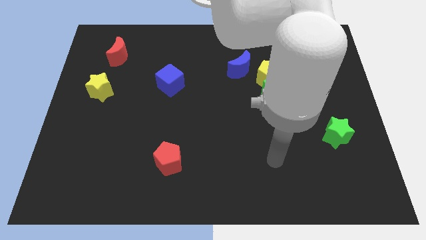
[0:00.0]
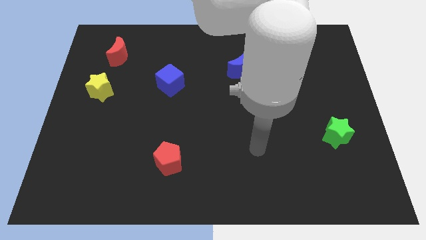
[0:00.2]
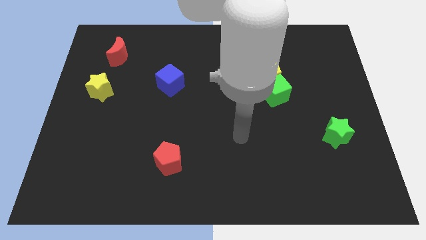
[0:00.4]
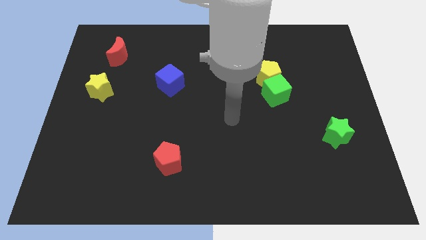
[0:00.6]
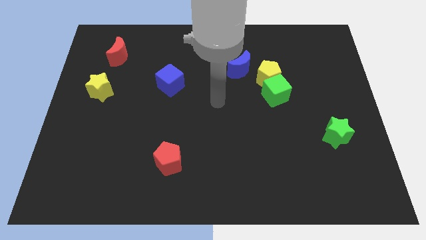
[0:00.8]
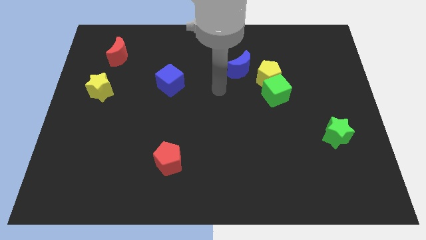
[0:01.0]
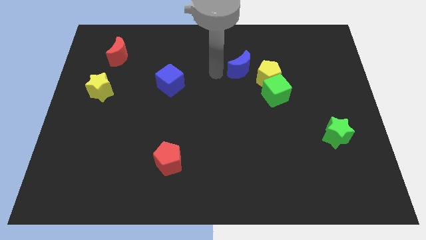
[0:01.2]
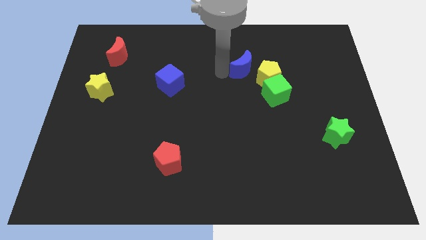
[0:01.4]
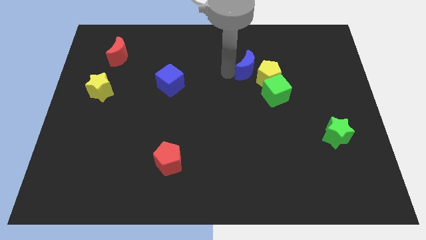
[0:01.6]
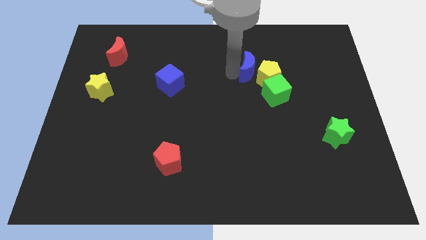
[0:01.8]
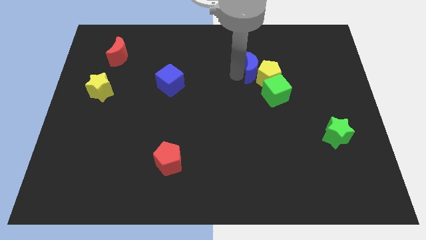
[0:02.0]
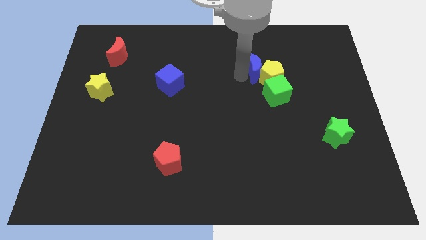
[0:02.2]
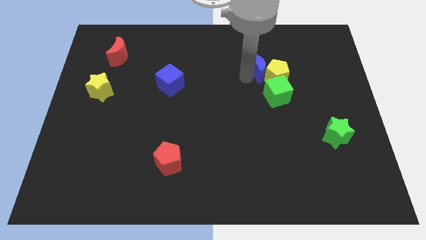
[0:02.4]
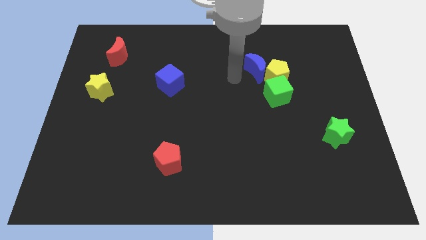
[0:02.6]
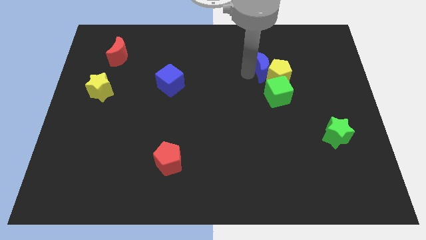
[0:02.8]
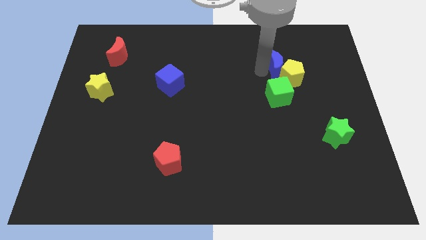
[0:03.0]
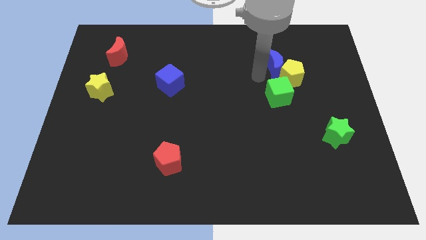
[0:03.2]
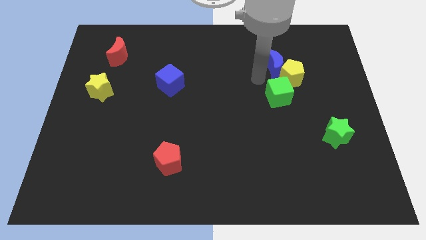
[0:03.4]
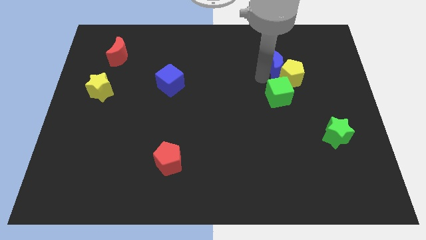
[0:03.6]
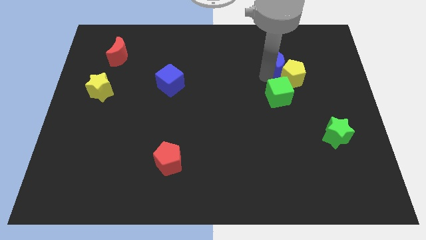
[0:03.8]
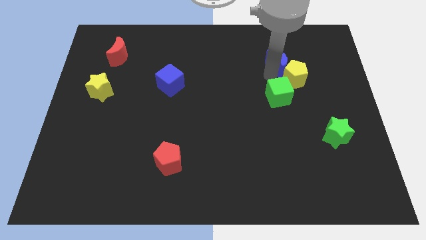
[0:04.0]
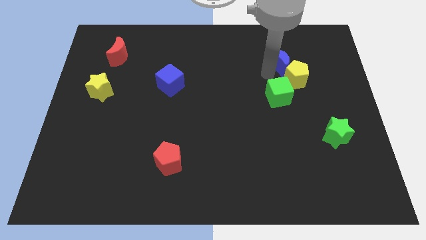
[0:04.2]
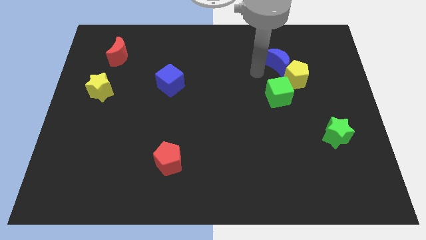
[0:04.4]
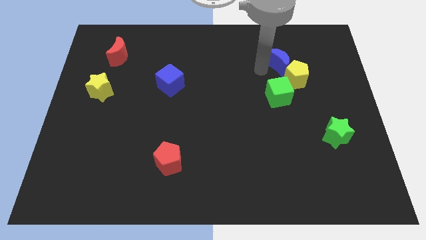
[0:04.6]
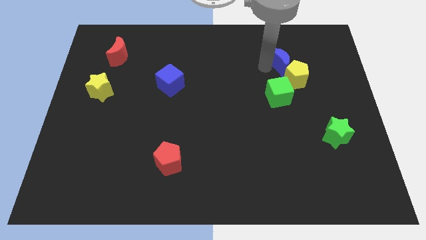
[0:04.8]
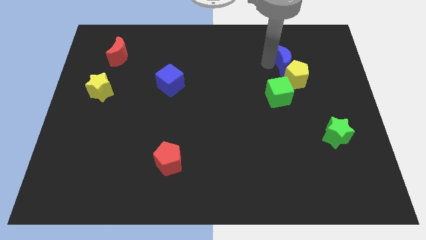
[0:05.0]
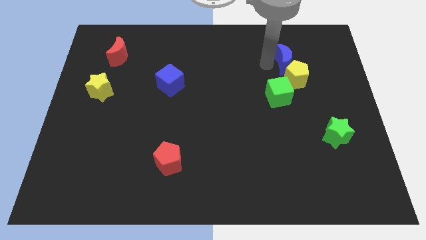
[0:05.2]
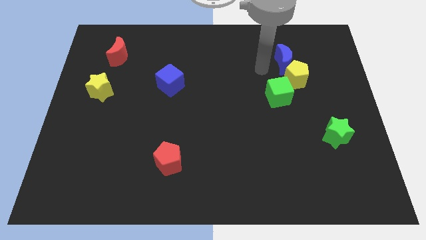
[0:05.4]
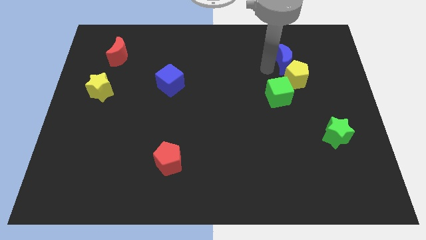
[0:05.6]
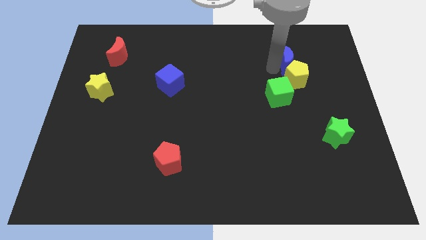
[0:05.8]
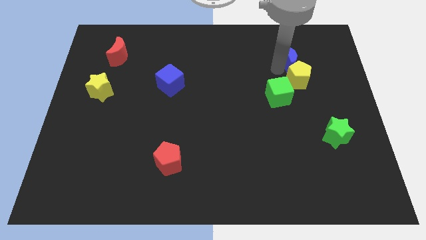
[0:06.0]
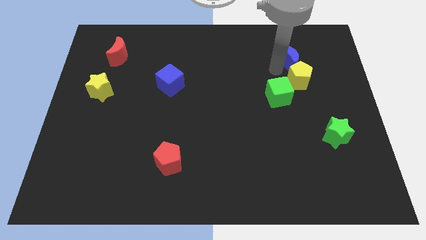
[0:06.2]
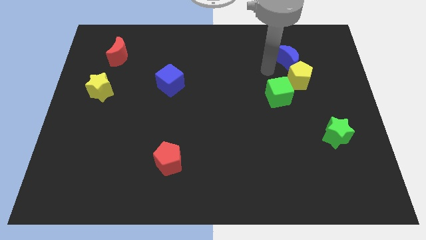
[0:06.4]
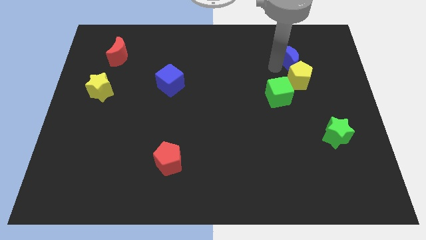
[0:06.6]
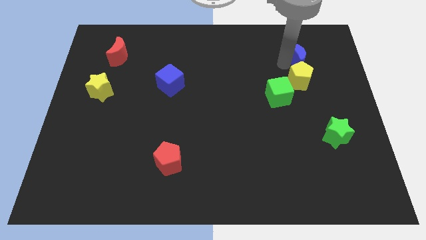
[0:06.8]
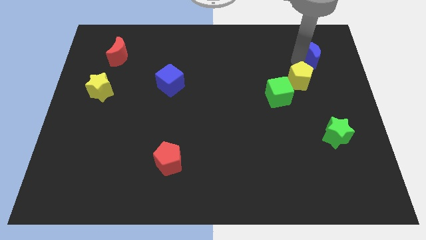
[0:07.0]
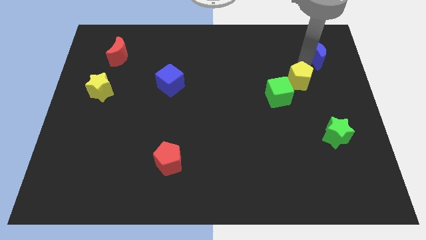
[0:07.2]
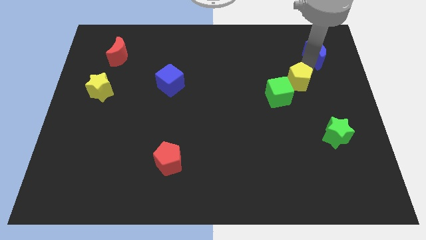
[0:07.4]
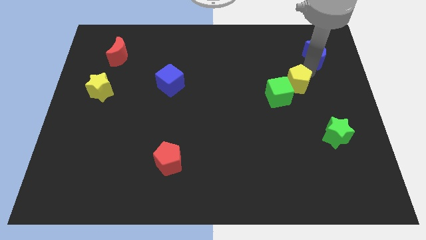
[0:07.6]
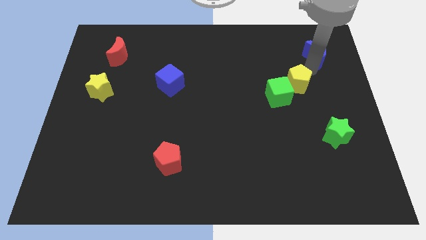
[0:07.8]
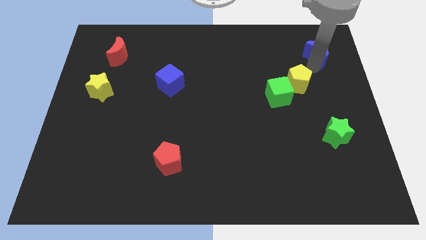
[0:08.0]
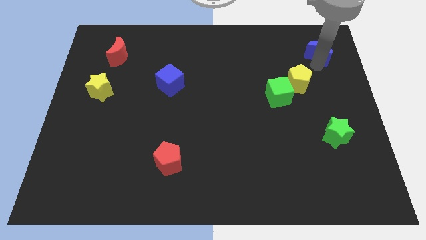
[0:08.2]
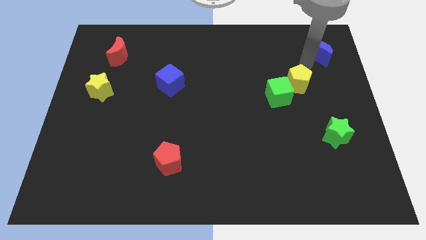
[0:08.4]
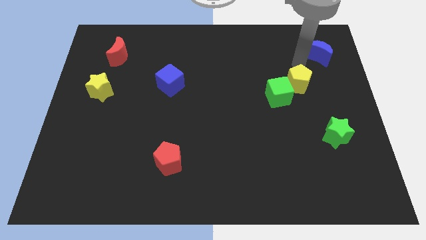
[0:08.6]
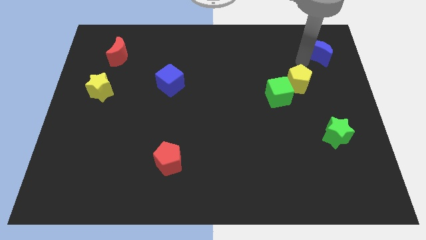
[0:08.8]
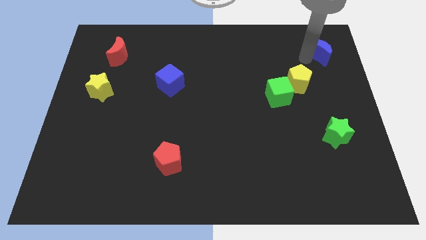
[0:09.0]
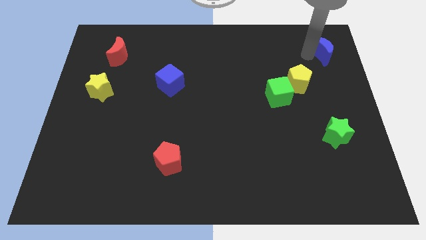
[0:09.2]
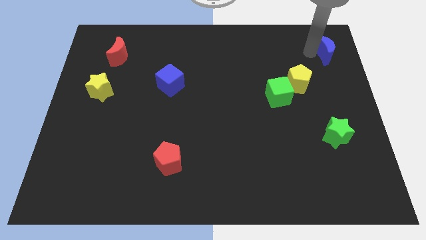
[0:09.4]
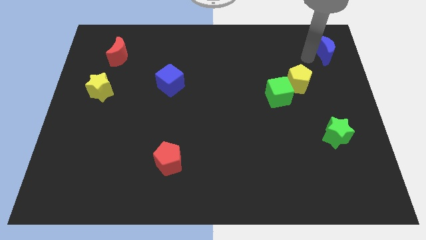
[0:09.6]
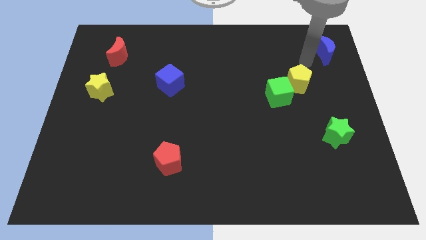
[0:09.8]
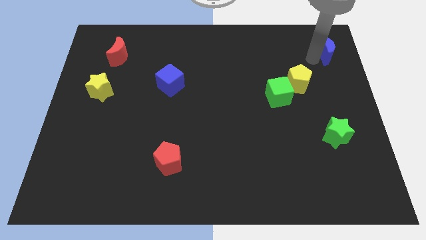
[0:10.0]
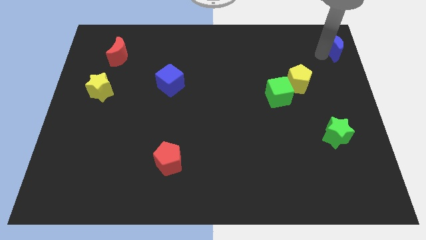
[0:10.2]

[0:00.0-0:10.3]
move the blue moon to the upper right corner

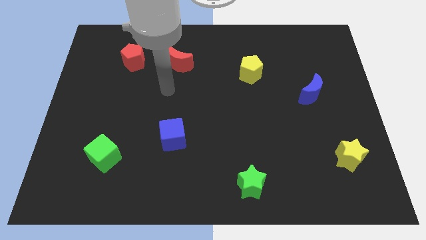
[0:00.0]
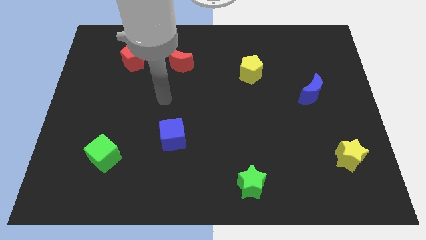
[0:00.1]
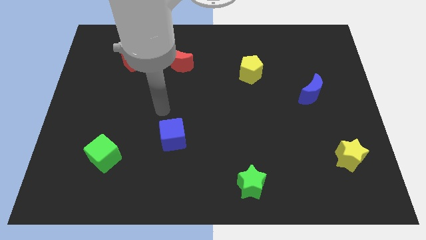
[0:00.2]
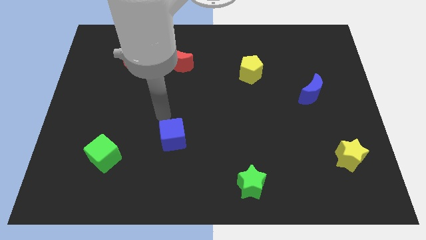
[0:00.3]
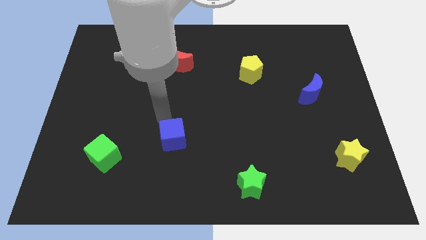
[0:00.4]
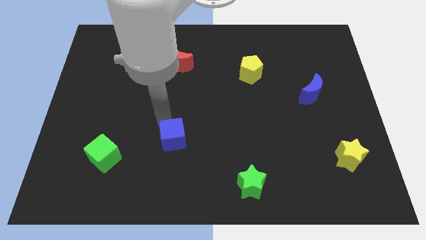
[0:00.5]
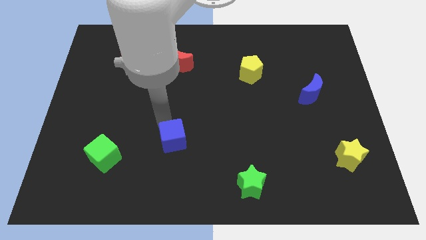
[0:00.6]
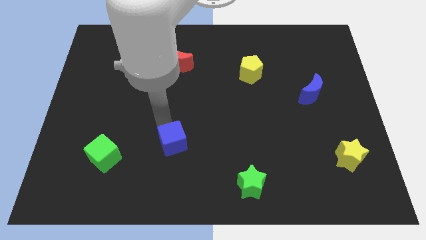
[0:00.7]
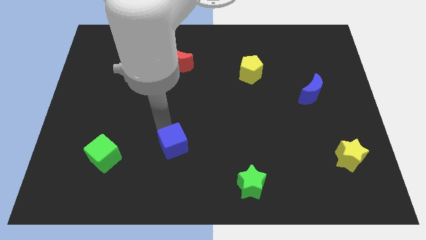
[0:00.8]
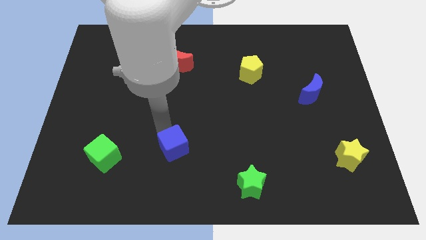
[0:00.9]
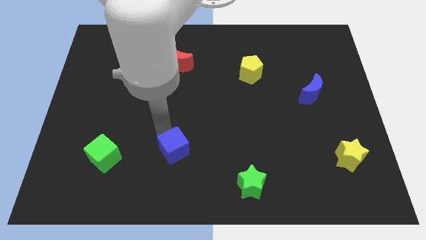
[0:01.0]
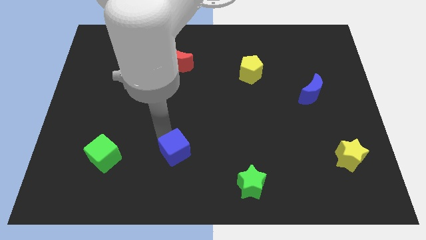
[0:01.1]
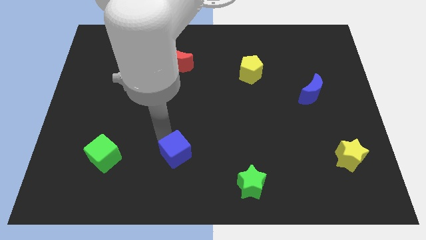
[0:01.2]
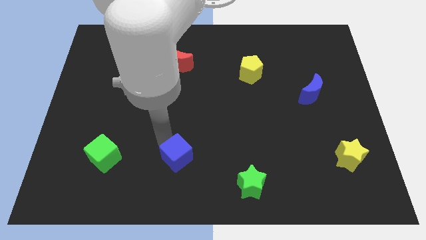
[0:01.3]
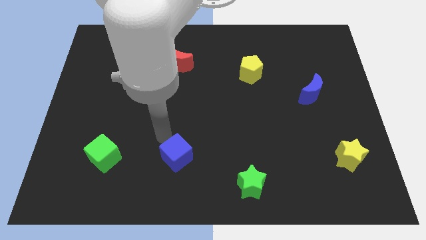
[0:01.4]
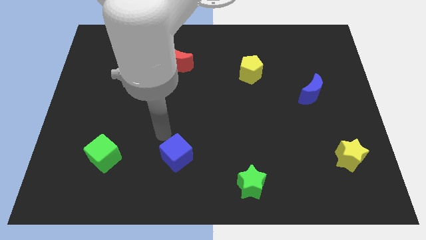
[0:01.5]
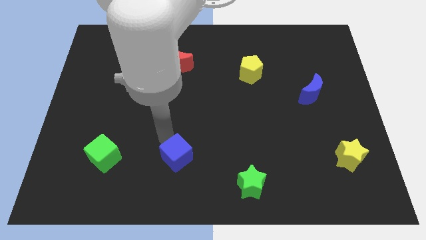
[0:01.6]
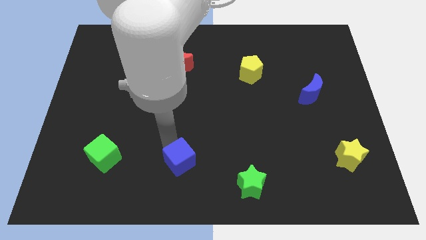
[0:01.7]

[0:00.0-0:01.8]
put the blue cube to the bottom side
